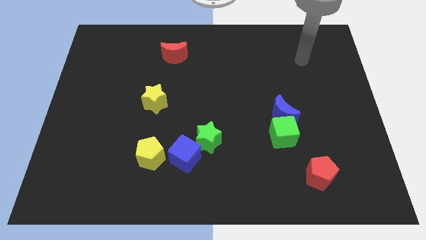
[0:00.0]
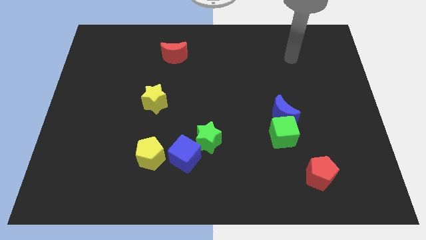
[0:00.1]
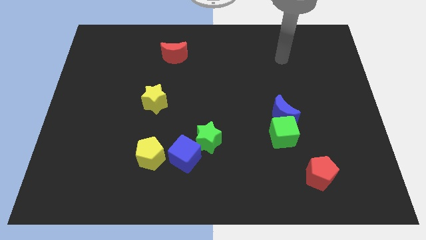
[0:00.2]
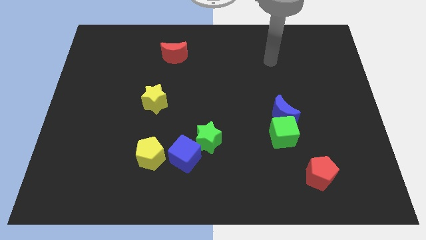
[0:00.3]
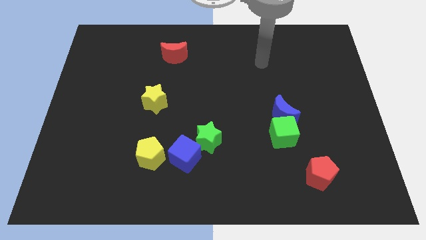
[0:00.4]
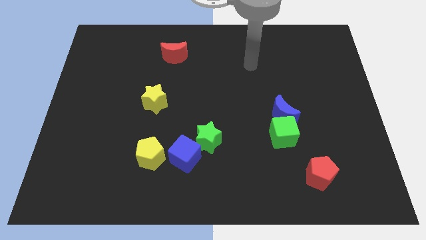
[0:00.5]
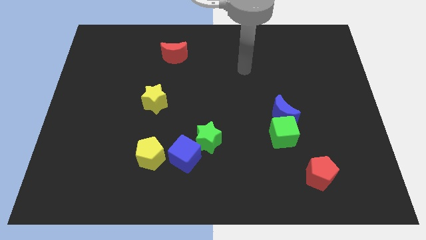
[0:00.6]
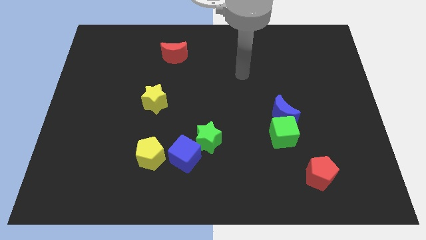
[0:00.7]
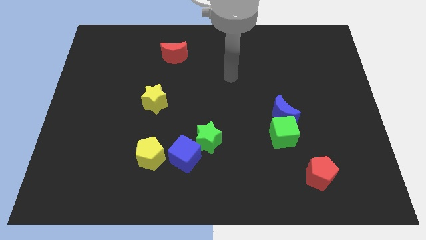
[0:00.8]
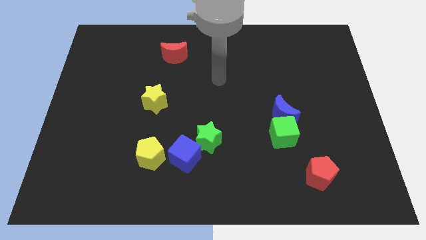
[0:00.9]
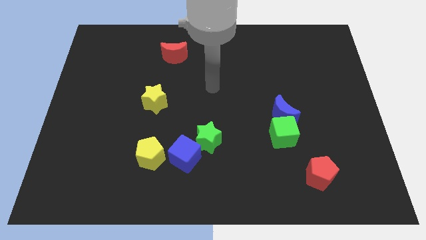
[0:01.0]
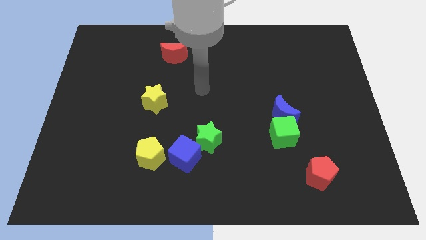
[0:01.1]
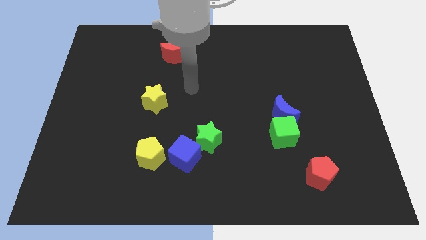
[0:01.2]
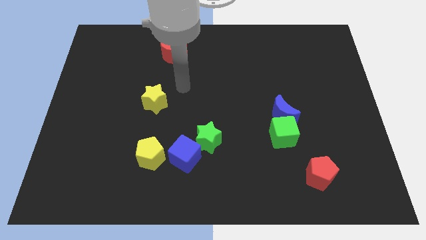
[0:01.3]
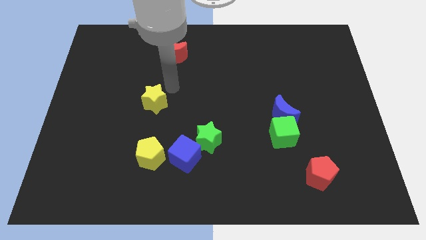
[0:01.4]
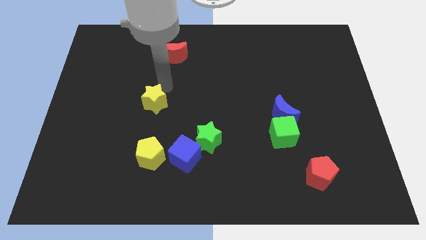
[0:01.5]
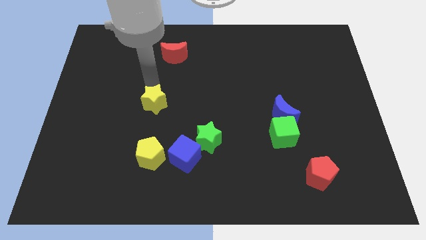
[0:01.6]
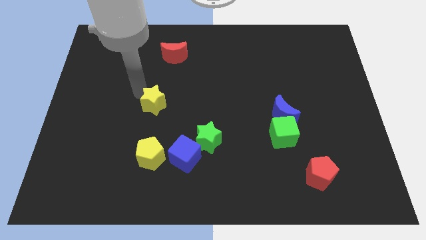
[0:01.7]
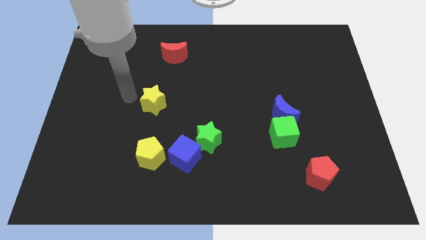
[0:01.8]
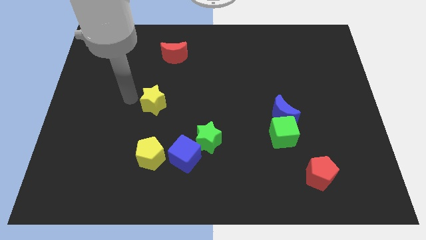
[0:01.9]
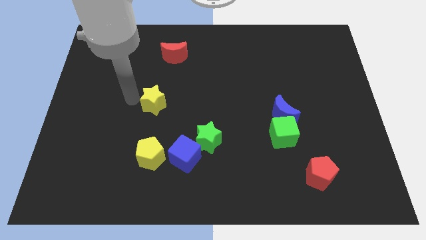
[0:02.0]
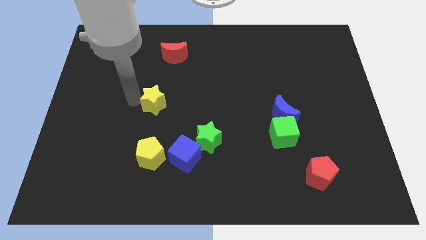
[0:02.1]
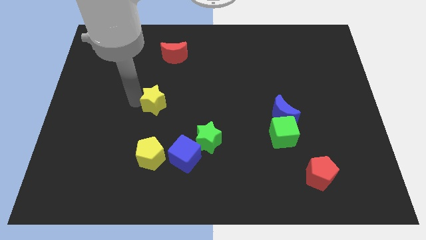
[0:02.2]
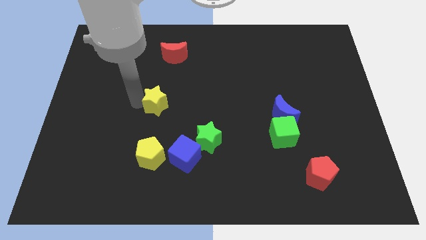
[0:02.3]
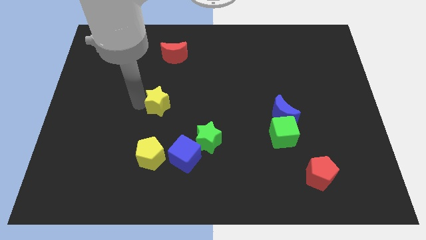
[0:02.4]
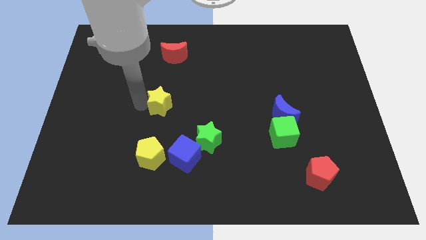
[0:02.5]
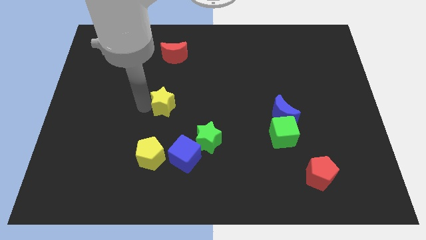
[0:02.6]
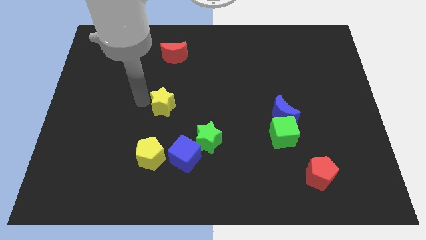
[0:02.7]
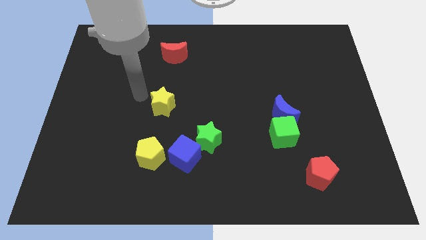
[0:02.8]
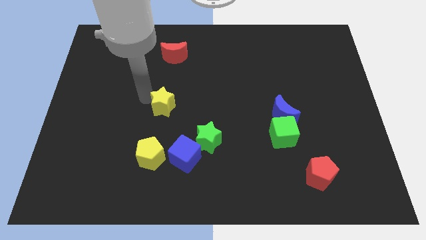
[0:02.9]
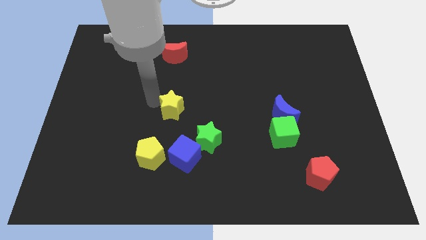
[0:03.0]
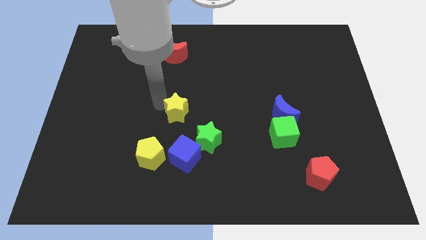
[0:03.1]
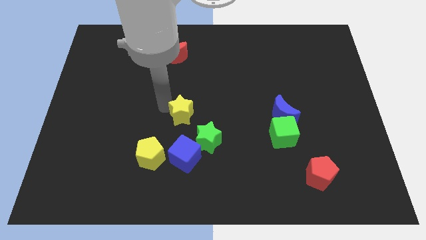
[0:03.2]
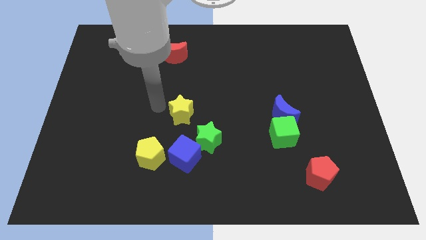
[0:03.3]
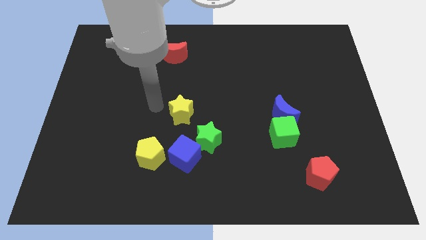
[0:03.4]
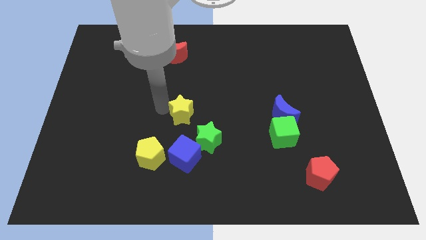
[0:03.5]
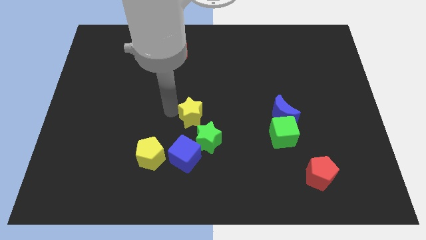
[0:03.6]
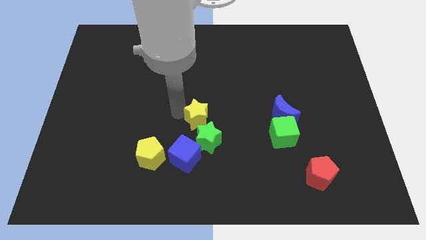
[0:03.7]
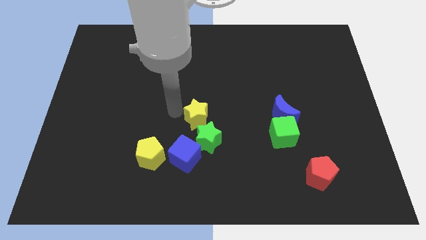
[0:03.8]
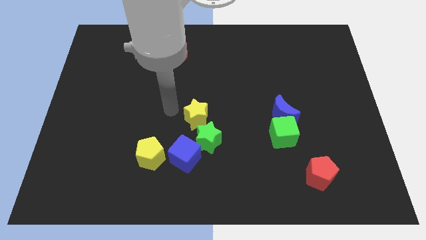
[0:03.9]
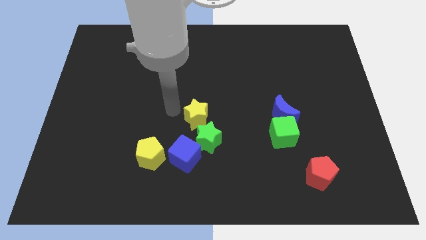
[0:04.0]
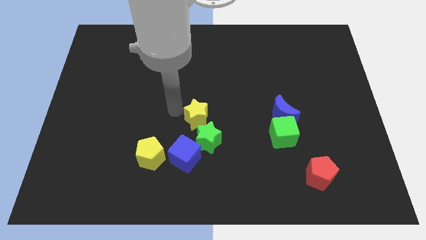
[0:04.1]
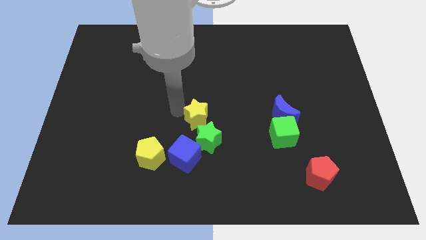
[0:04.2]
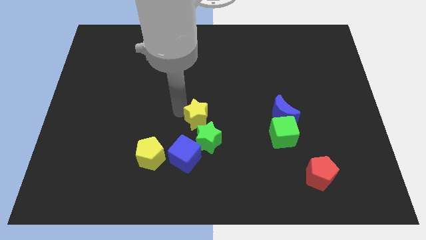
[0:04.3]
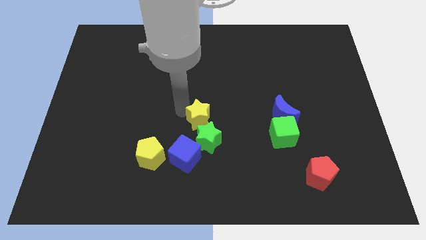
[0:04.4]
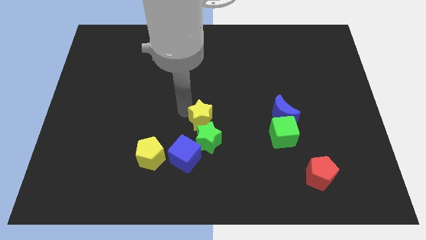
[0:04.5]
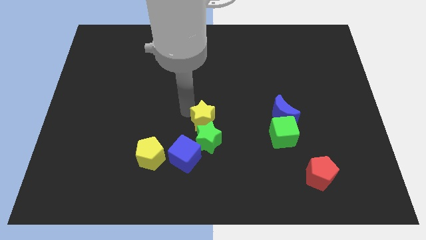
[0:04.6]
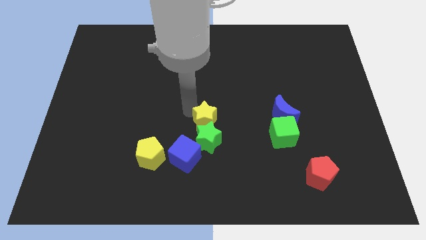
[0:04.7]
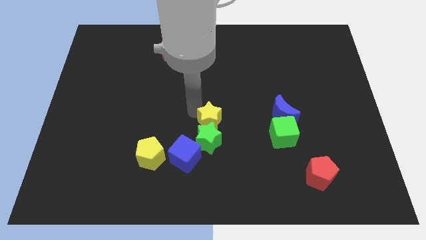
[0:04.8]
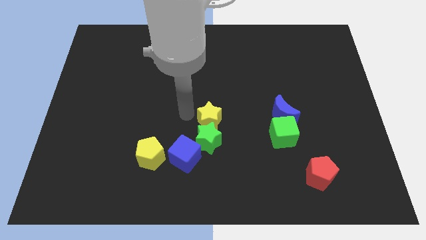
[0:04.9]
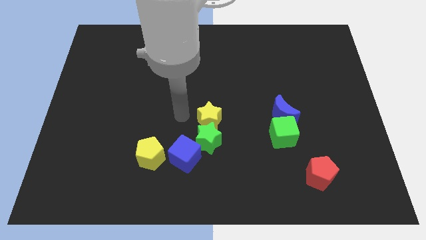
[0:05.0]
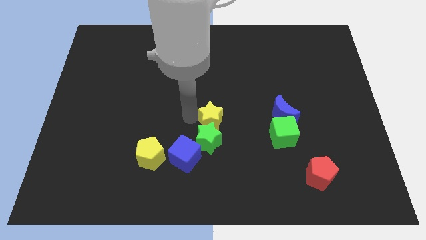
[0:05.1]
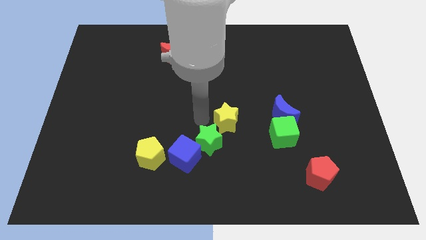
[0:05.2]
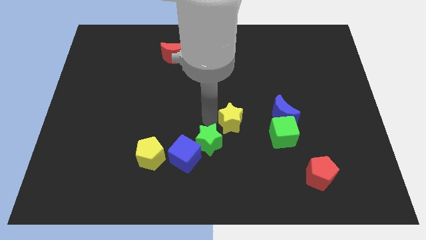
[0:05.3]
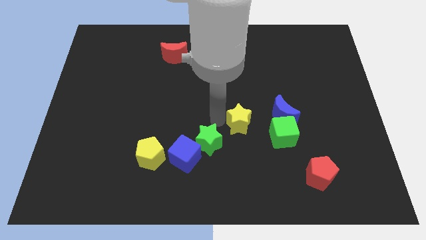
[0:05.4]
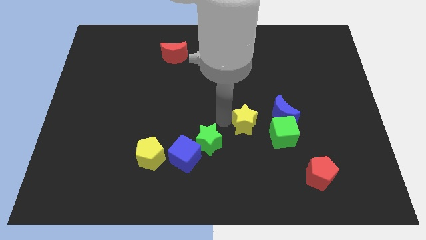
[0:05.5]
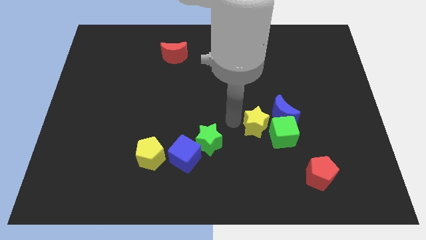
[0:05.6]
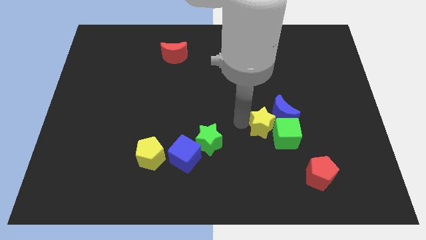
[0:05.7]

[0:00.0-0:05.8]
put the yellow star towards the green cube

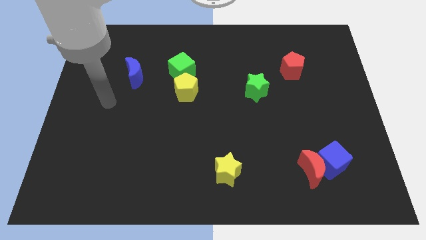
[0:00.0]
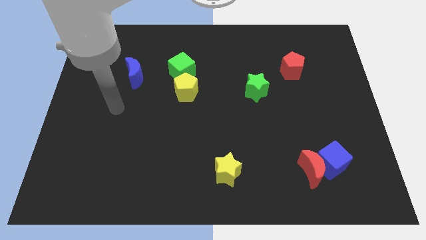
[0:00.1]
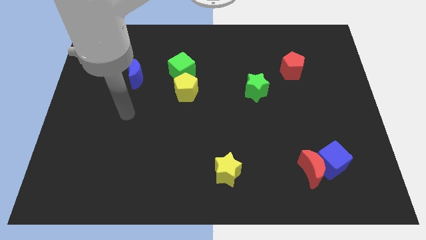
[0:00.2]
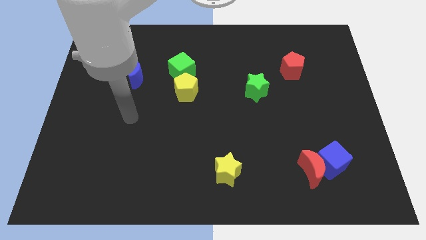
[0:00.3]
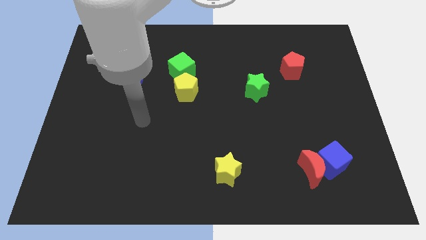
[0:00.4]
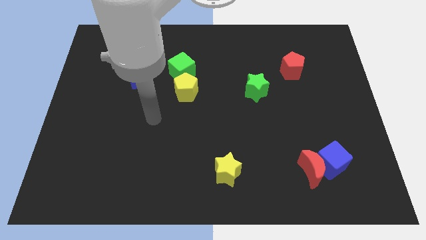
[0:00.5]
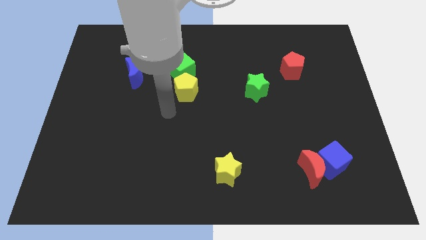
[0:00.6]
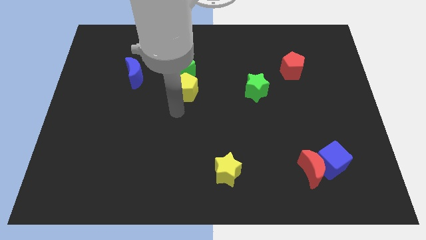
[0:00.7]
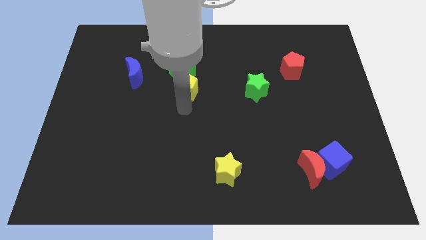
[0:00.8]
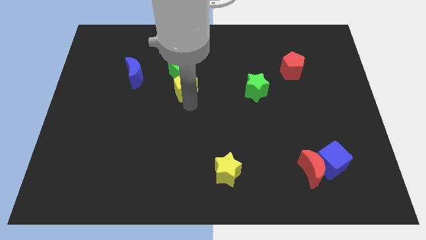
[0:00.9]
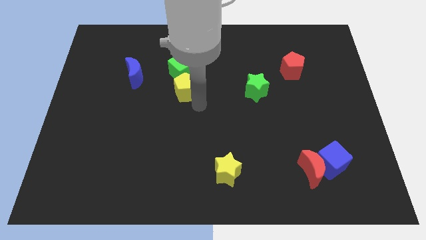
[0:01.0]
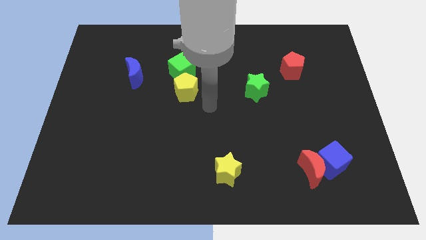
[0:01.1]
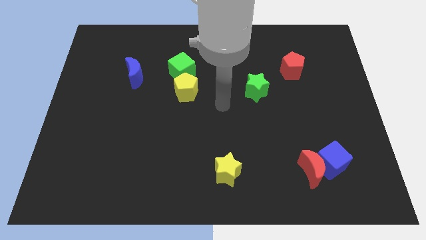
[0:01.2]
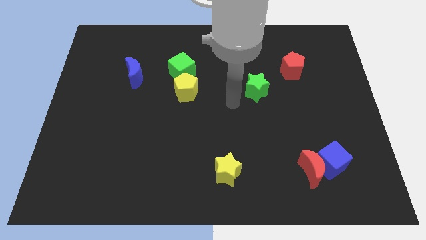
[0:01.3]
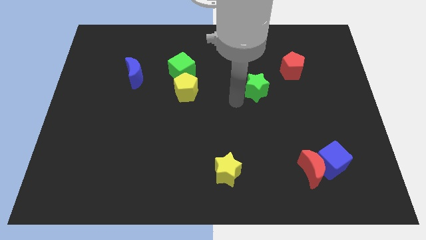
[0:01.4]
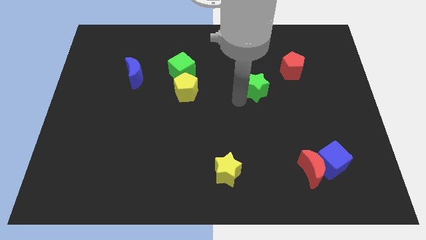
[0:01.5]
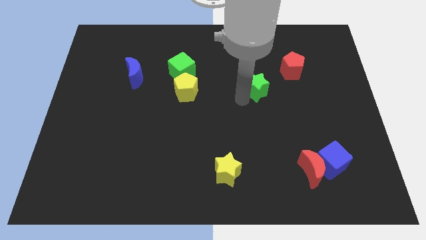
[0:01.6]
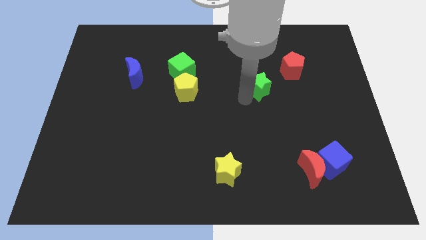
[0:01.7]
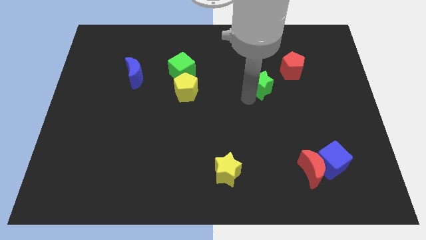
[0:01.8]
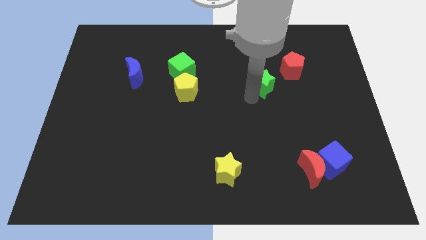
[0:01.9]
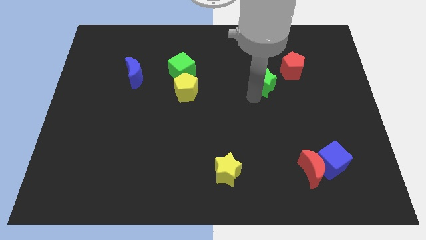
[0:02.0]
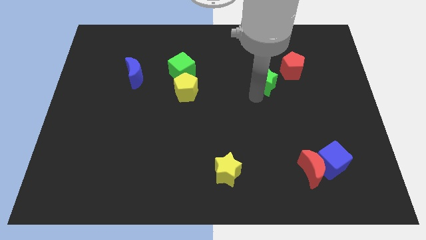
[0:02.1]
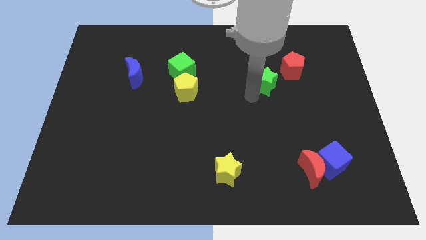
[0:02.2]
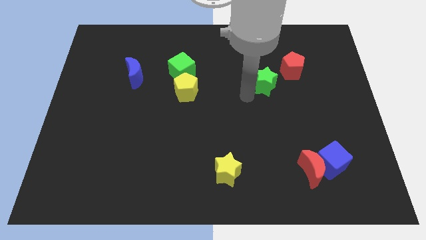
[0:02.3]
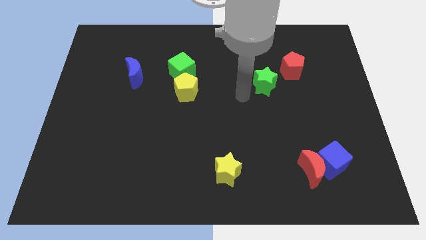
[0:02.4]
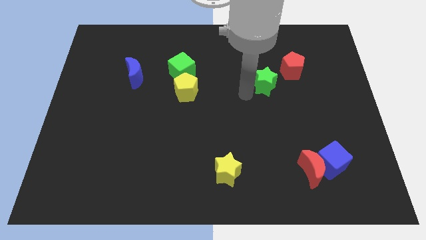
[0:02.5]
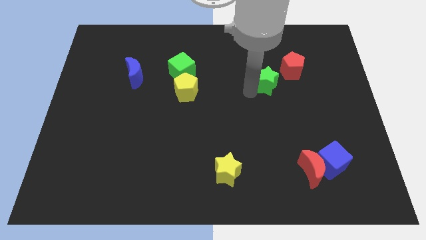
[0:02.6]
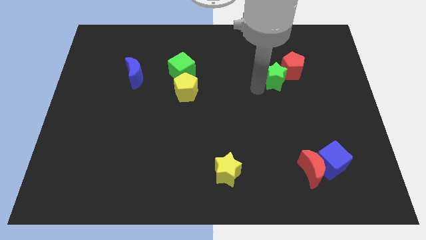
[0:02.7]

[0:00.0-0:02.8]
move the green star towards the red pentagon
